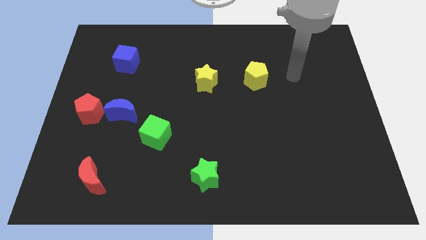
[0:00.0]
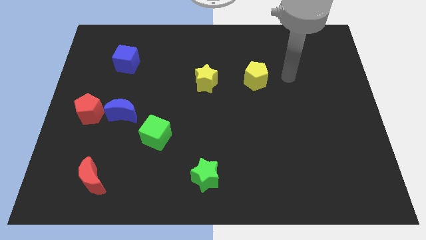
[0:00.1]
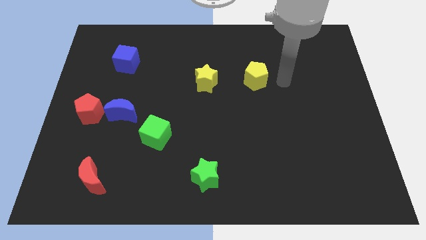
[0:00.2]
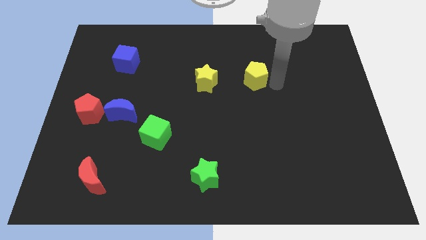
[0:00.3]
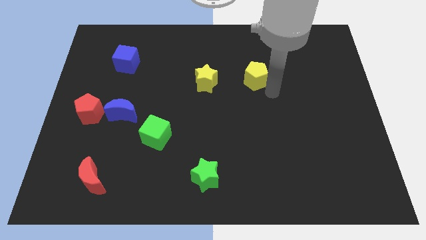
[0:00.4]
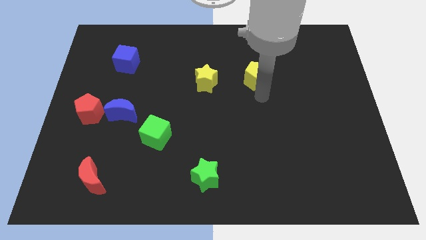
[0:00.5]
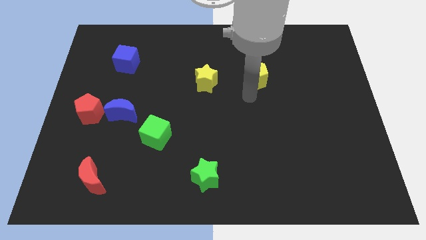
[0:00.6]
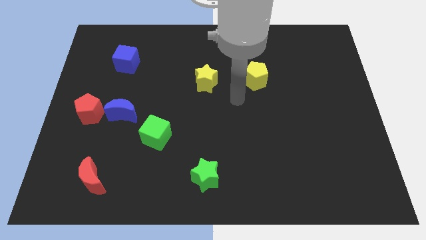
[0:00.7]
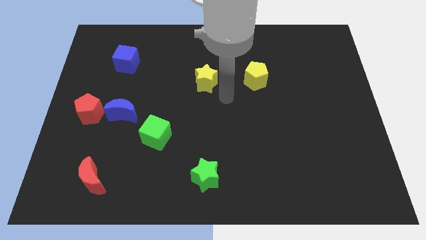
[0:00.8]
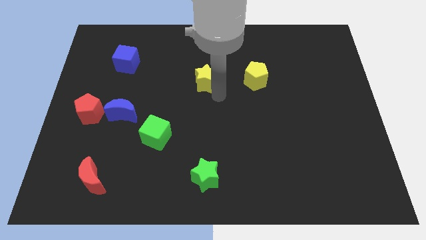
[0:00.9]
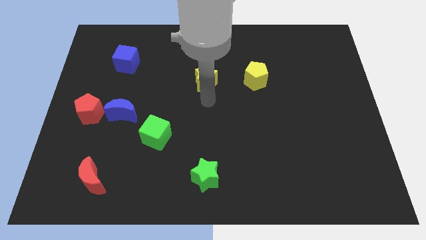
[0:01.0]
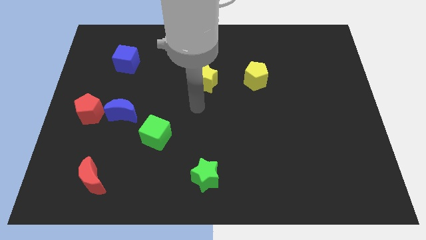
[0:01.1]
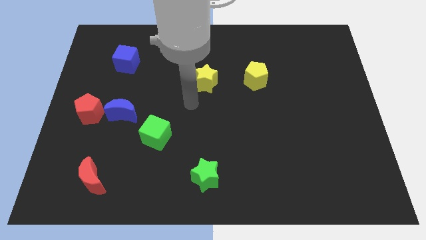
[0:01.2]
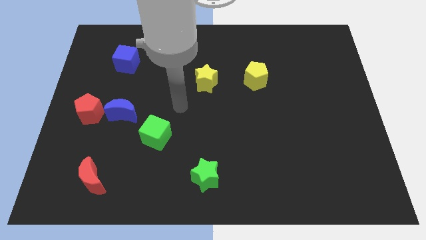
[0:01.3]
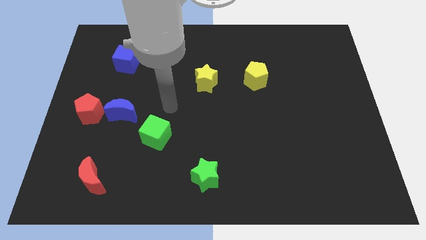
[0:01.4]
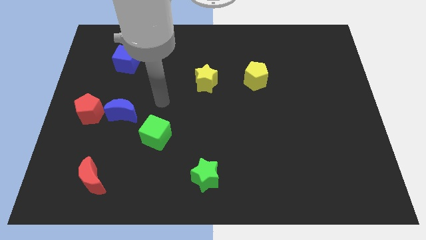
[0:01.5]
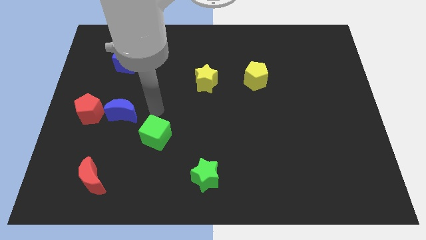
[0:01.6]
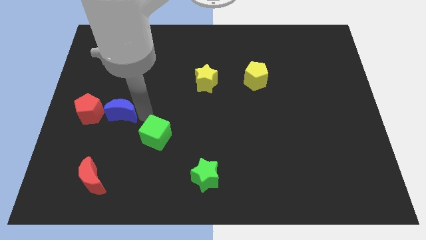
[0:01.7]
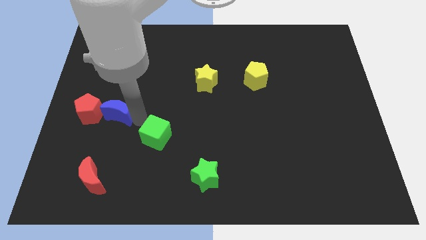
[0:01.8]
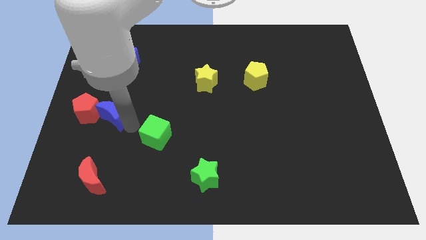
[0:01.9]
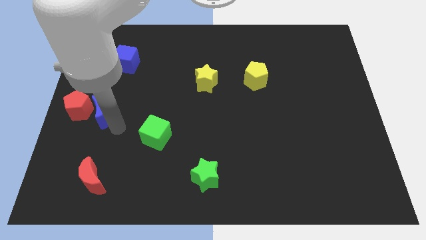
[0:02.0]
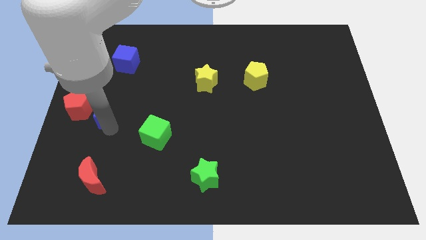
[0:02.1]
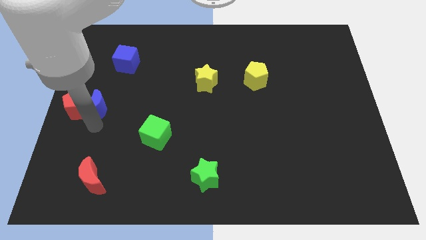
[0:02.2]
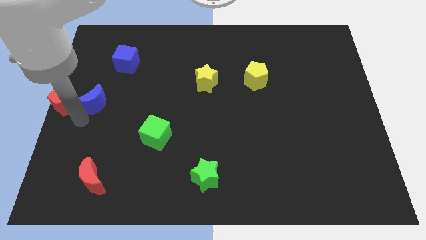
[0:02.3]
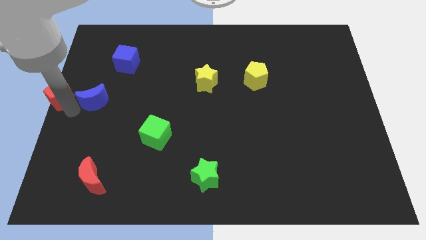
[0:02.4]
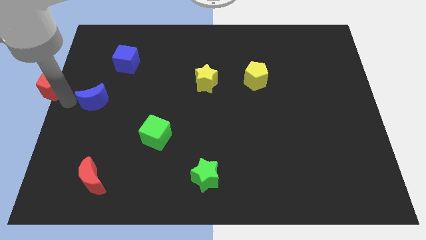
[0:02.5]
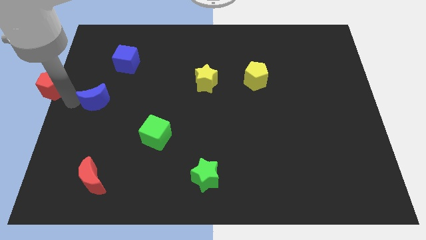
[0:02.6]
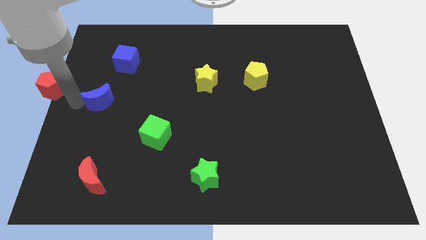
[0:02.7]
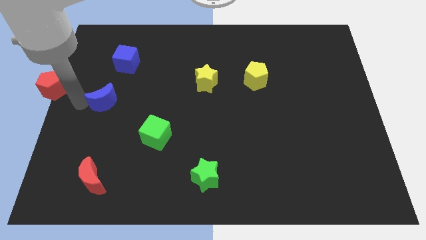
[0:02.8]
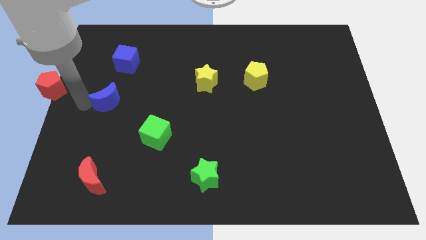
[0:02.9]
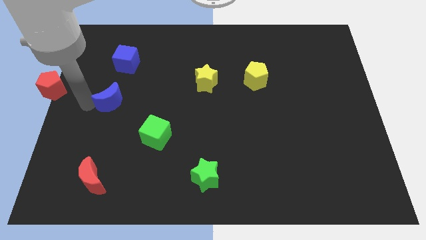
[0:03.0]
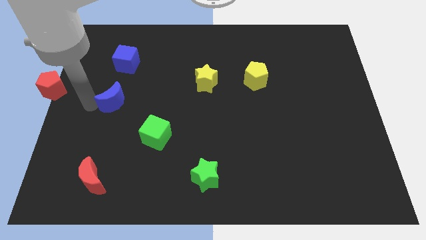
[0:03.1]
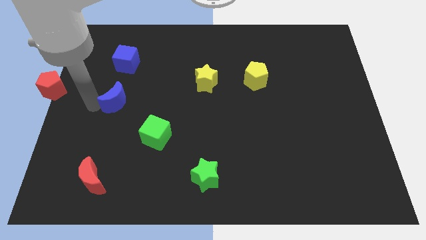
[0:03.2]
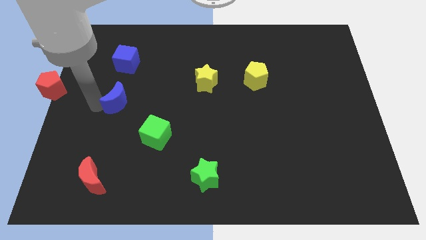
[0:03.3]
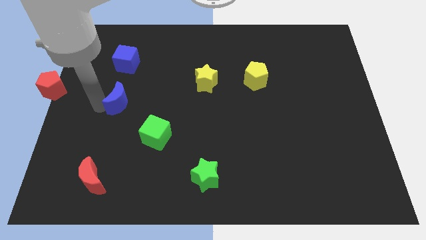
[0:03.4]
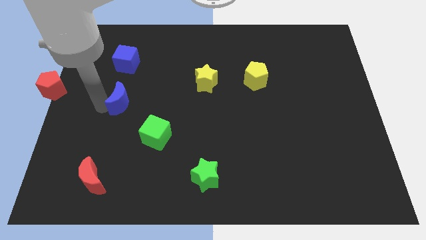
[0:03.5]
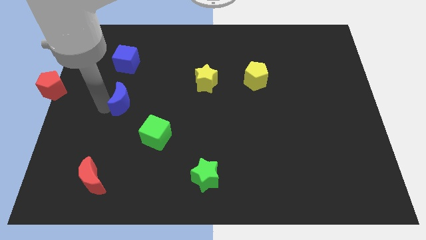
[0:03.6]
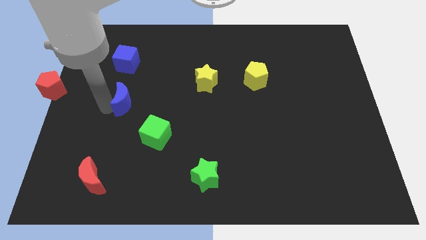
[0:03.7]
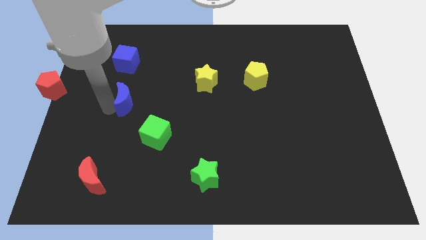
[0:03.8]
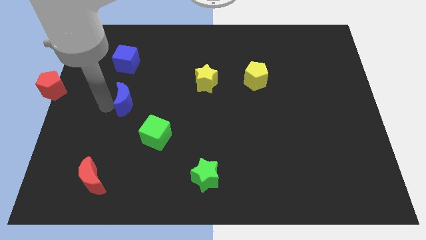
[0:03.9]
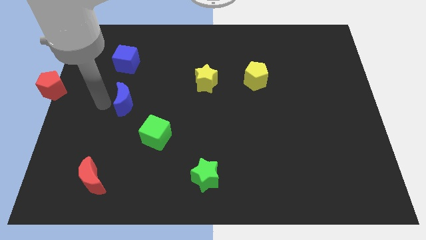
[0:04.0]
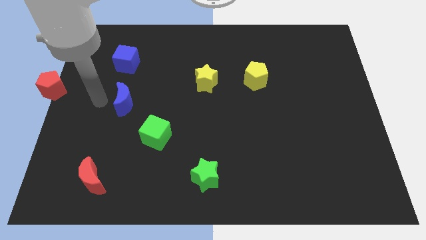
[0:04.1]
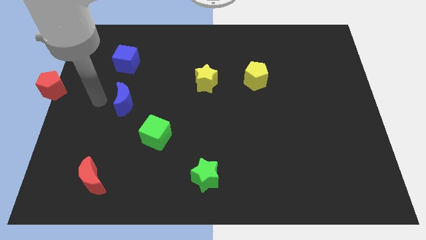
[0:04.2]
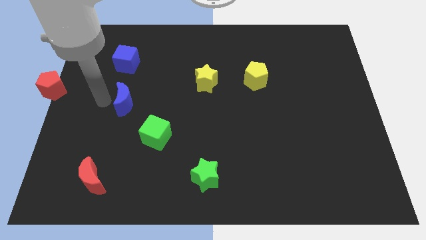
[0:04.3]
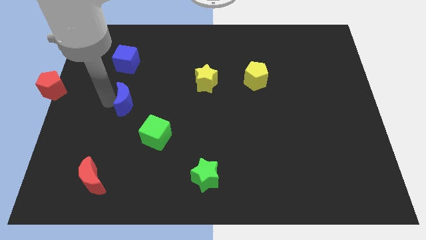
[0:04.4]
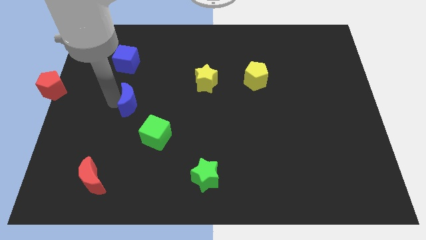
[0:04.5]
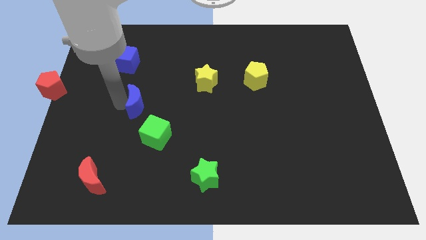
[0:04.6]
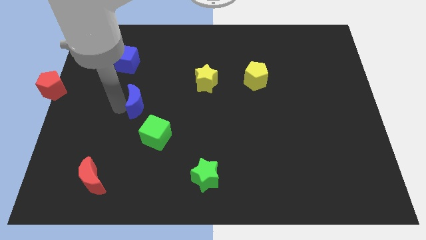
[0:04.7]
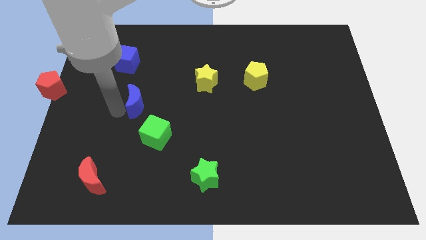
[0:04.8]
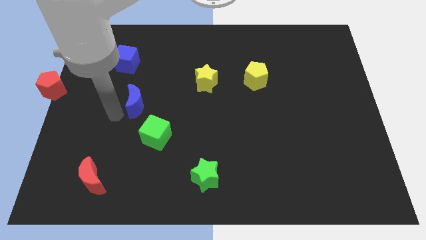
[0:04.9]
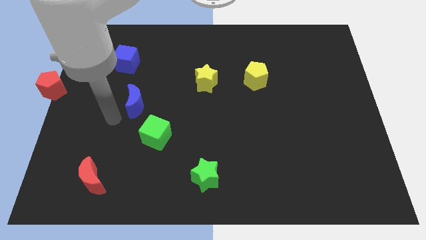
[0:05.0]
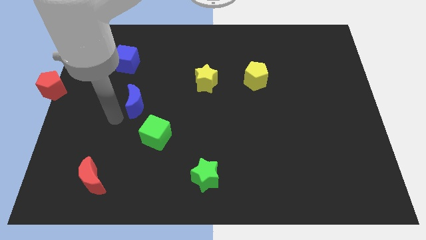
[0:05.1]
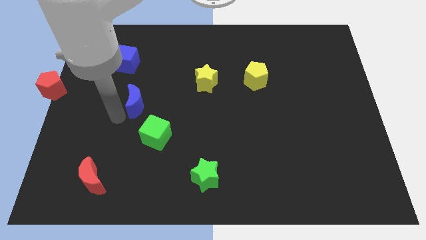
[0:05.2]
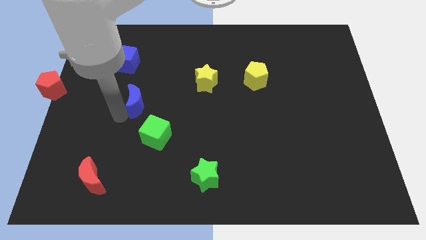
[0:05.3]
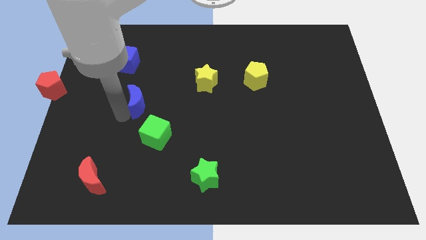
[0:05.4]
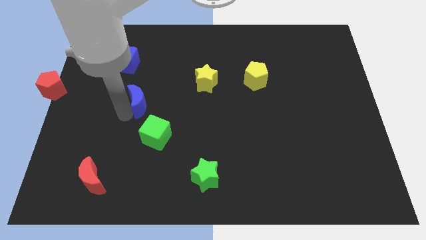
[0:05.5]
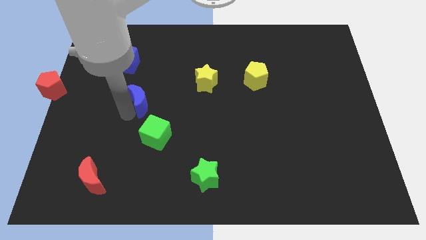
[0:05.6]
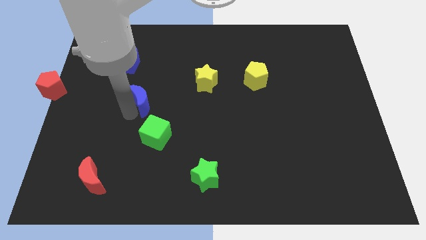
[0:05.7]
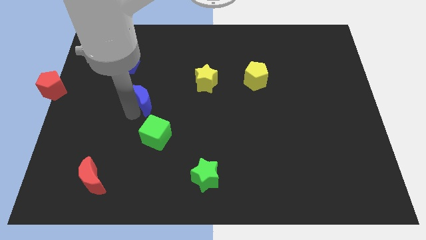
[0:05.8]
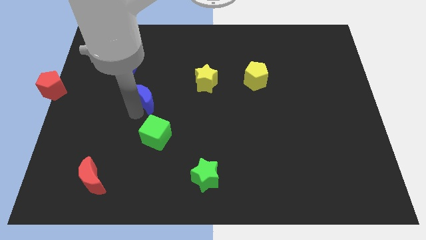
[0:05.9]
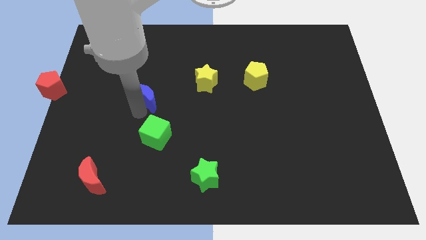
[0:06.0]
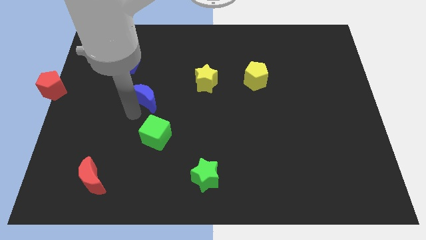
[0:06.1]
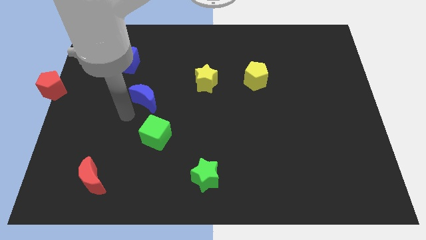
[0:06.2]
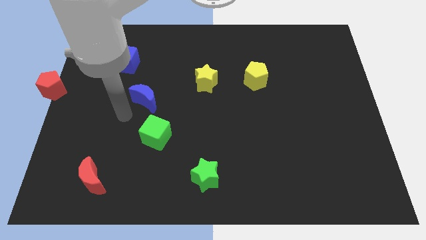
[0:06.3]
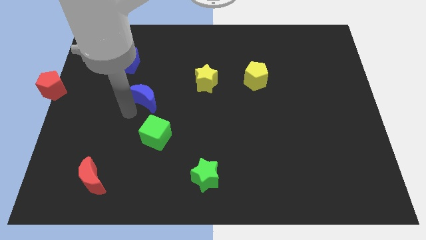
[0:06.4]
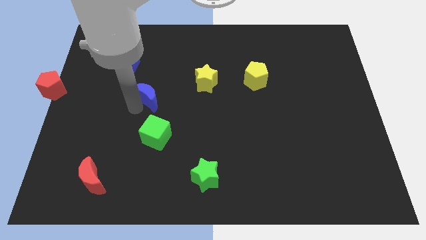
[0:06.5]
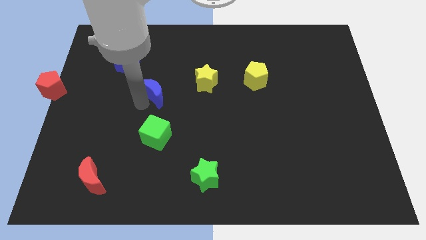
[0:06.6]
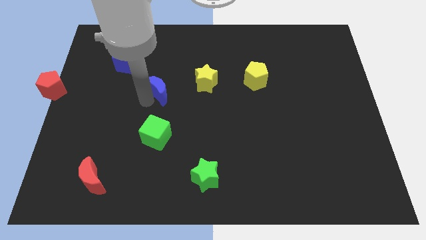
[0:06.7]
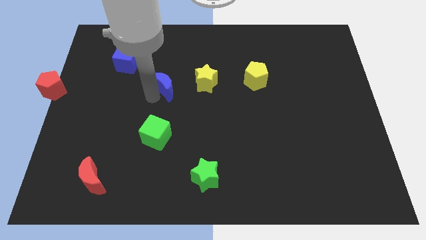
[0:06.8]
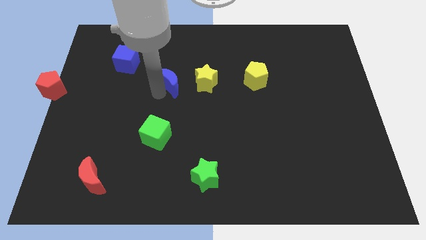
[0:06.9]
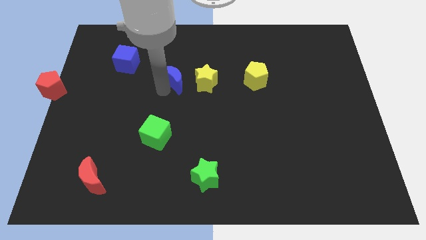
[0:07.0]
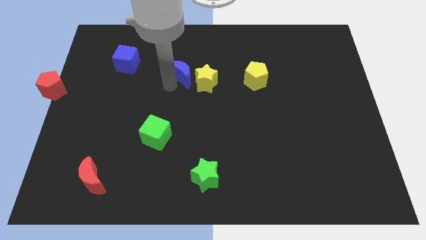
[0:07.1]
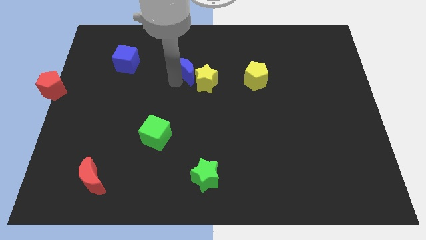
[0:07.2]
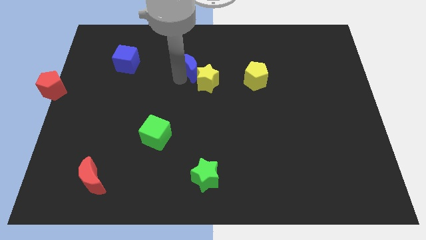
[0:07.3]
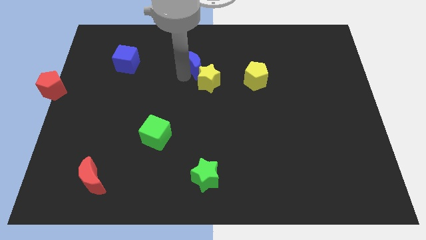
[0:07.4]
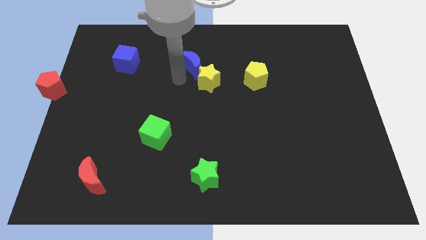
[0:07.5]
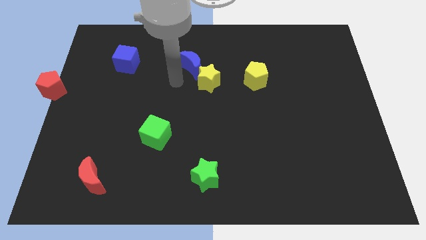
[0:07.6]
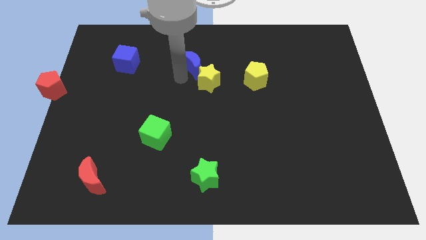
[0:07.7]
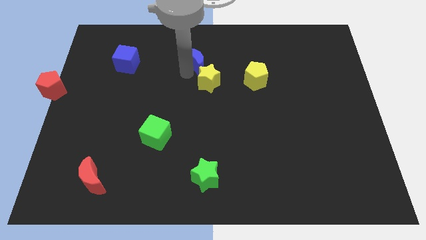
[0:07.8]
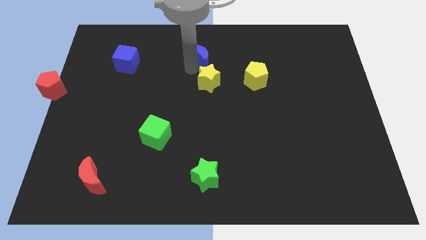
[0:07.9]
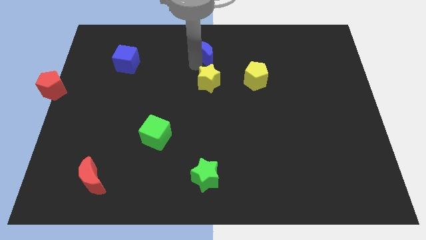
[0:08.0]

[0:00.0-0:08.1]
move the blue moon to the top side
